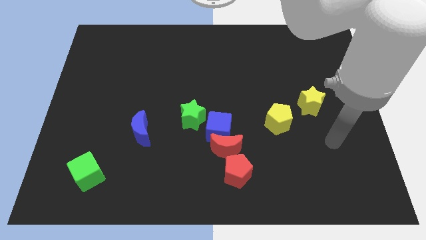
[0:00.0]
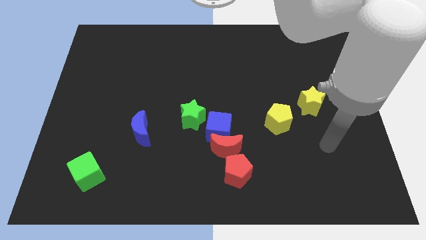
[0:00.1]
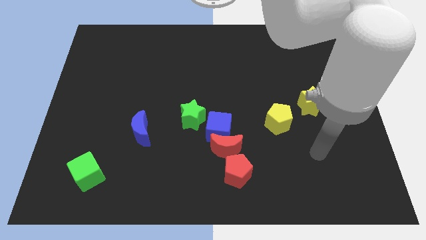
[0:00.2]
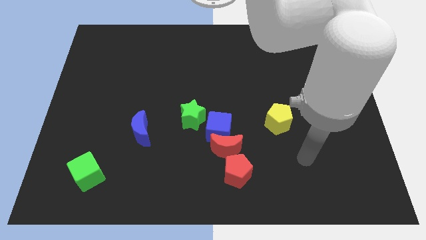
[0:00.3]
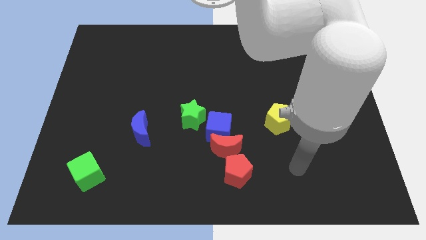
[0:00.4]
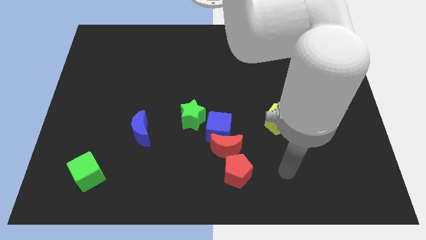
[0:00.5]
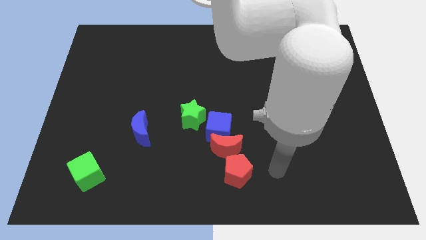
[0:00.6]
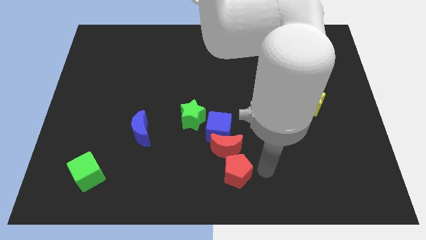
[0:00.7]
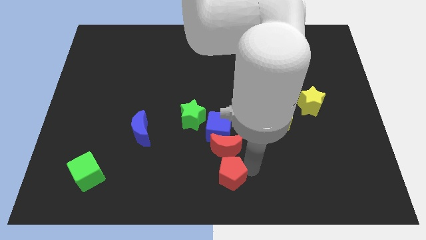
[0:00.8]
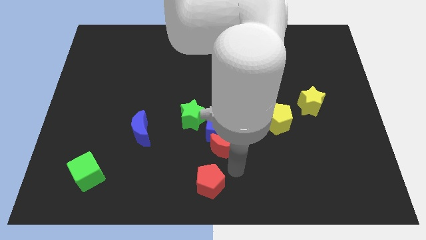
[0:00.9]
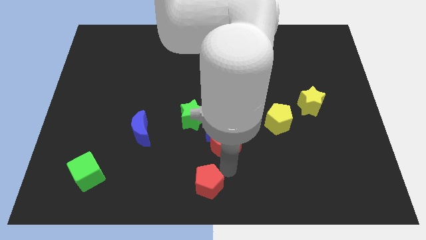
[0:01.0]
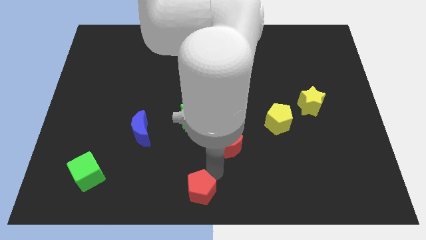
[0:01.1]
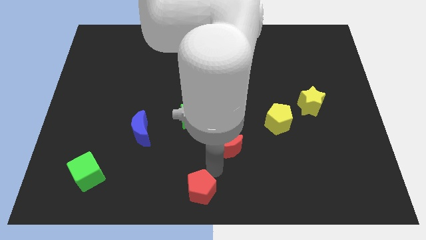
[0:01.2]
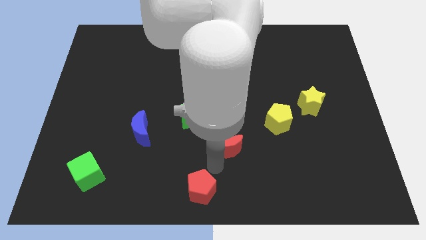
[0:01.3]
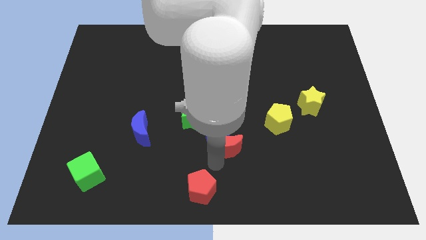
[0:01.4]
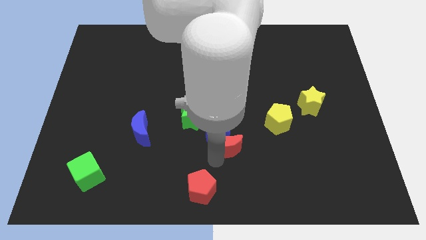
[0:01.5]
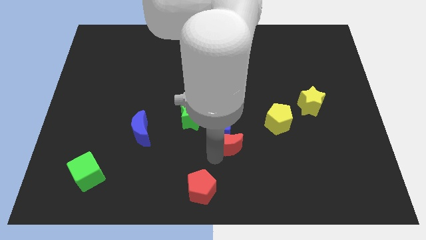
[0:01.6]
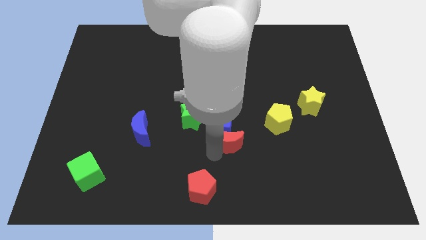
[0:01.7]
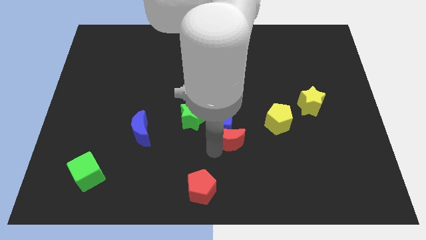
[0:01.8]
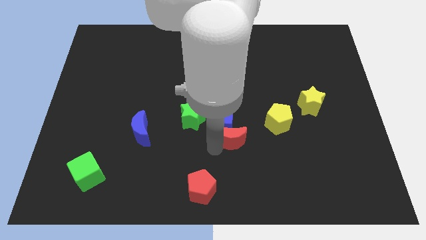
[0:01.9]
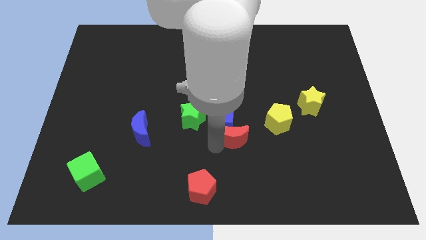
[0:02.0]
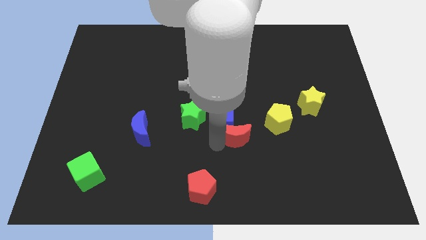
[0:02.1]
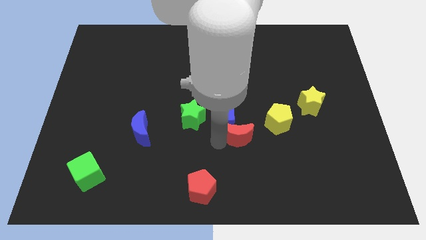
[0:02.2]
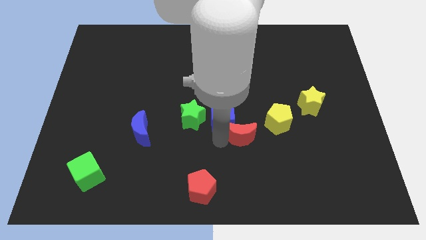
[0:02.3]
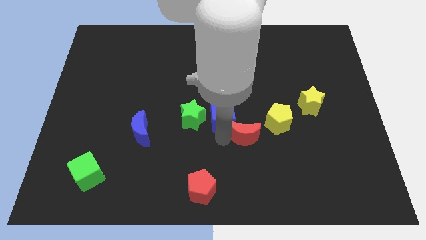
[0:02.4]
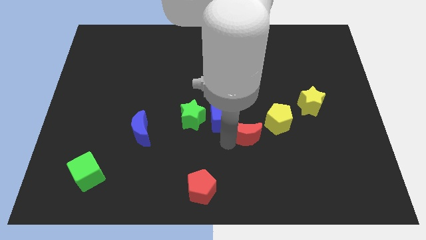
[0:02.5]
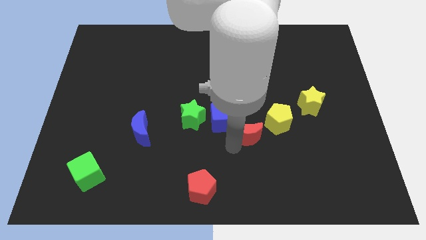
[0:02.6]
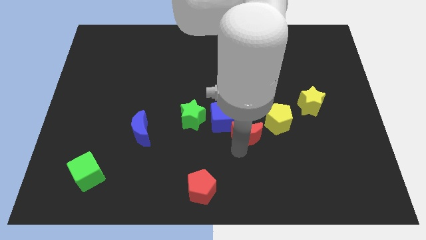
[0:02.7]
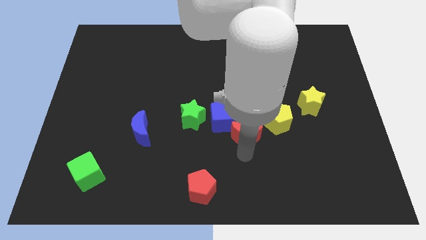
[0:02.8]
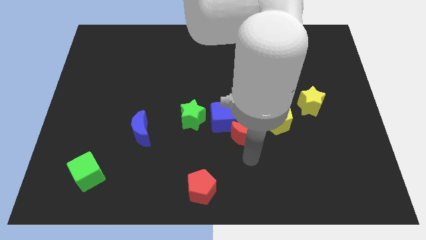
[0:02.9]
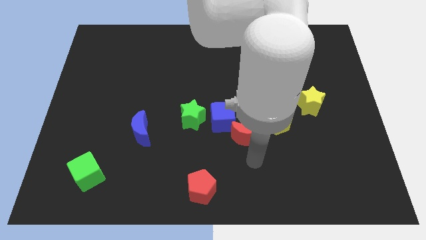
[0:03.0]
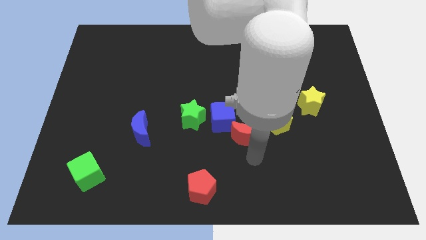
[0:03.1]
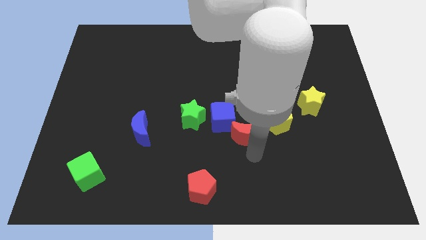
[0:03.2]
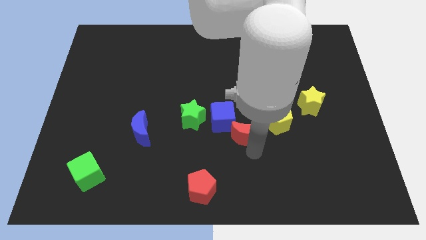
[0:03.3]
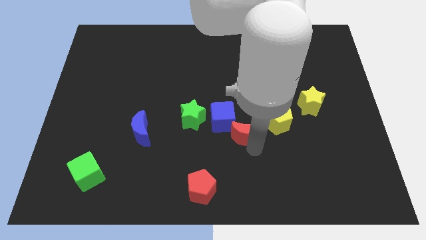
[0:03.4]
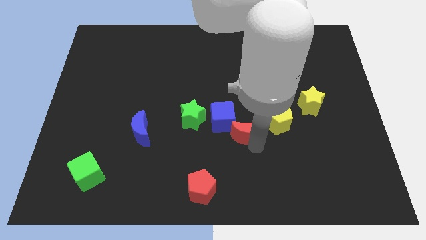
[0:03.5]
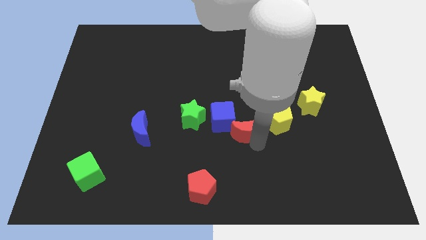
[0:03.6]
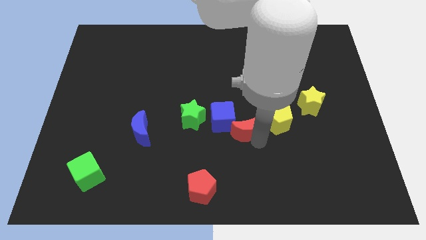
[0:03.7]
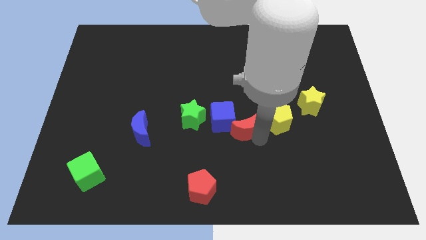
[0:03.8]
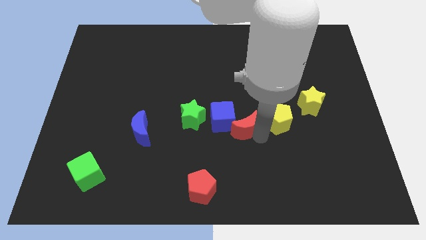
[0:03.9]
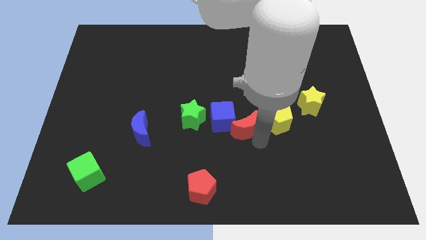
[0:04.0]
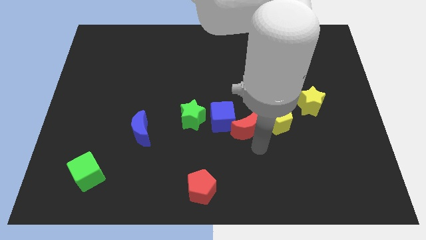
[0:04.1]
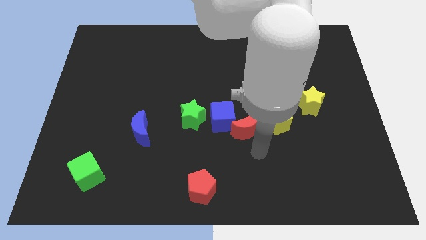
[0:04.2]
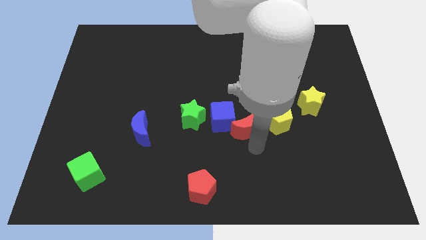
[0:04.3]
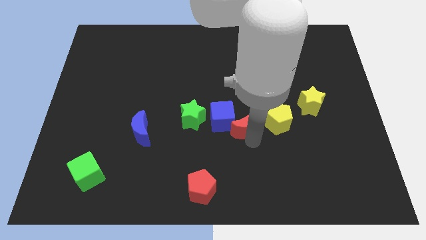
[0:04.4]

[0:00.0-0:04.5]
separate the red moon from the blue cube and red pentagon

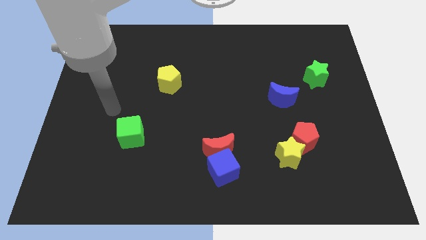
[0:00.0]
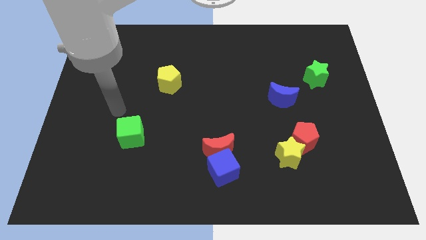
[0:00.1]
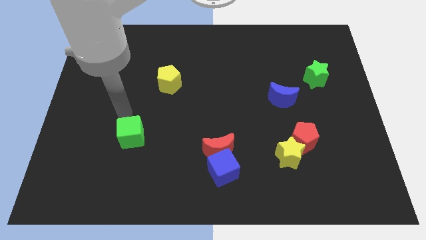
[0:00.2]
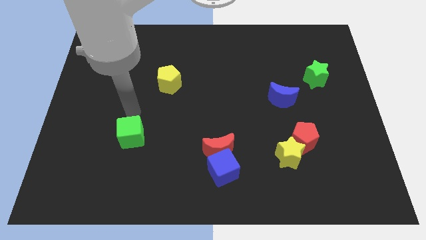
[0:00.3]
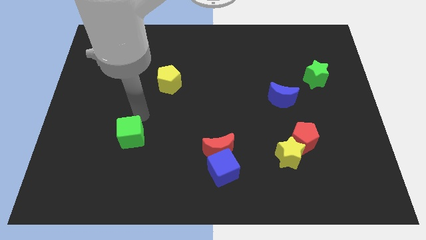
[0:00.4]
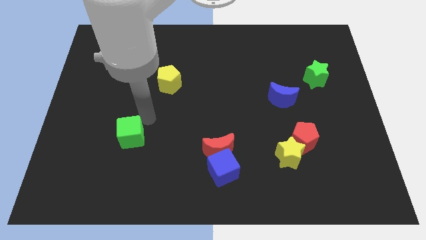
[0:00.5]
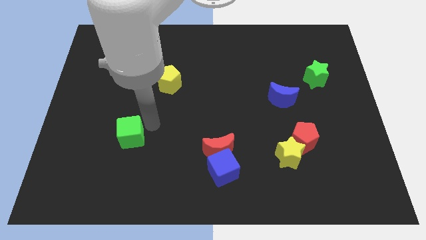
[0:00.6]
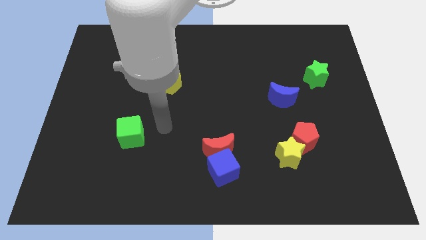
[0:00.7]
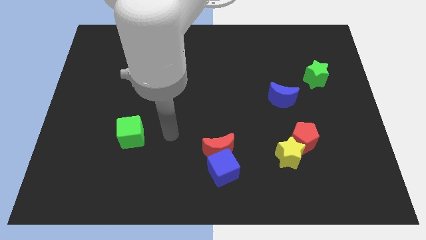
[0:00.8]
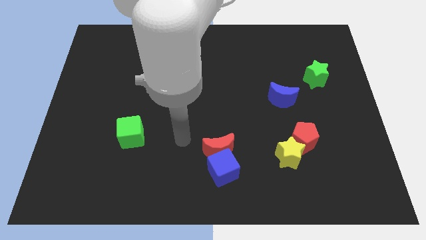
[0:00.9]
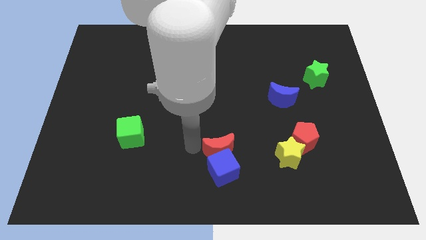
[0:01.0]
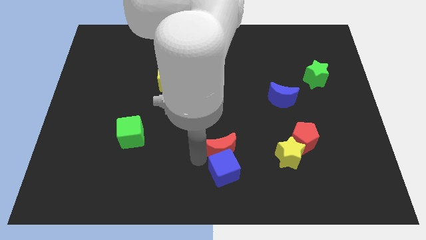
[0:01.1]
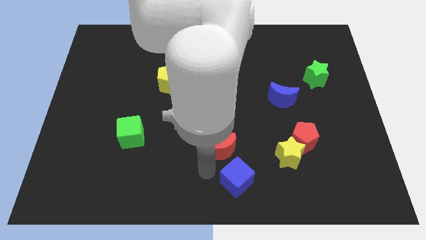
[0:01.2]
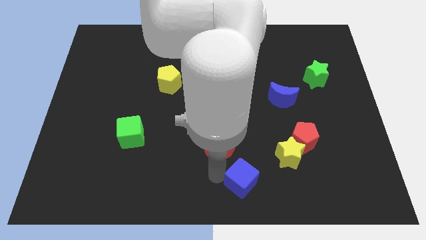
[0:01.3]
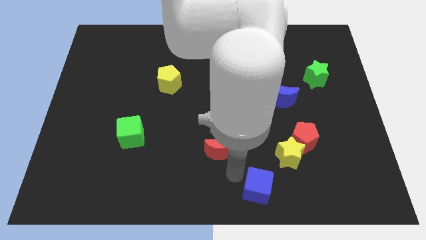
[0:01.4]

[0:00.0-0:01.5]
separate the red moon from the blue cube

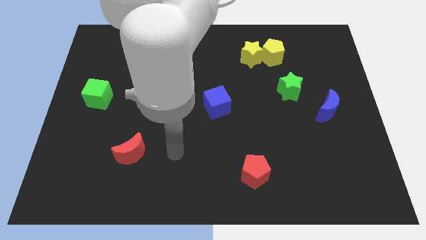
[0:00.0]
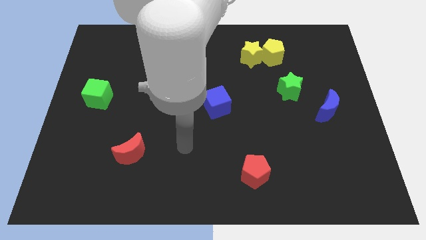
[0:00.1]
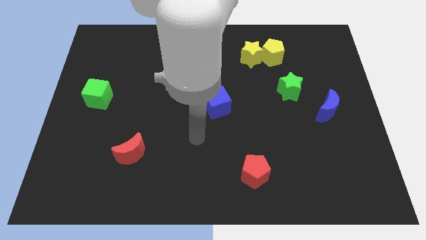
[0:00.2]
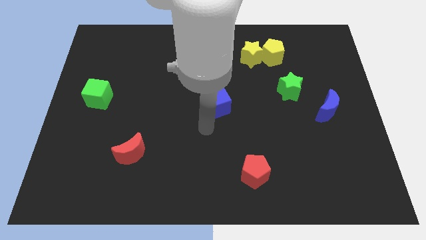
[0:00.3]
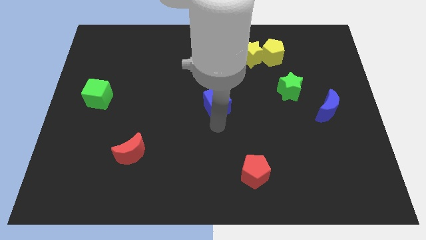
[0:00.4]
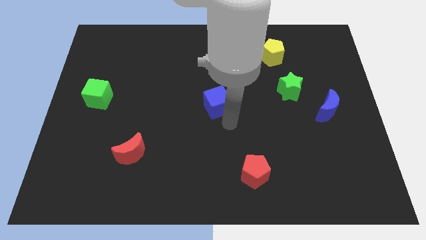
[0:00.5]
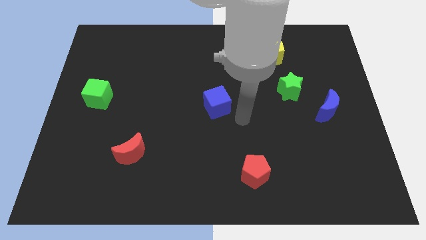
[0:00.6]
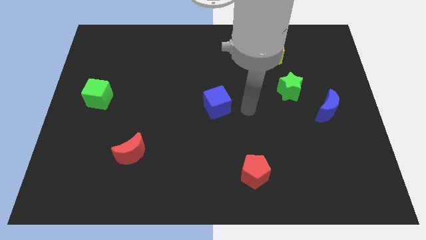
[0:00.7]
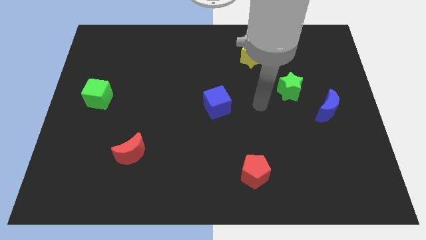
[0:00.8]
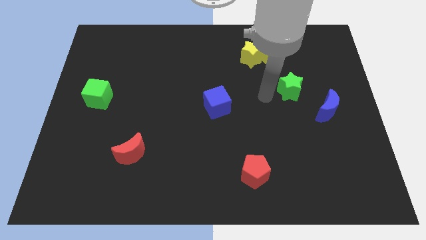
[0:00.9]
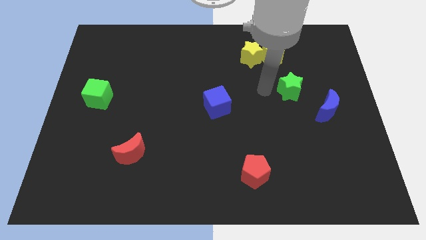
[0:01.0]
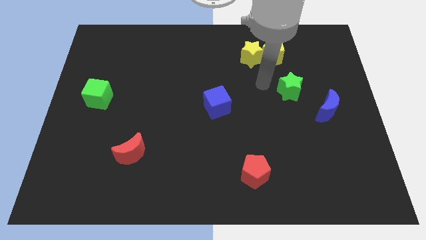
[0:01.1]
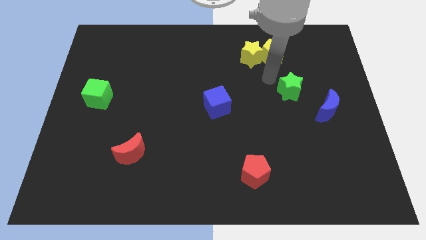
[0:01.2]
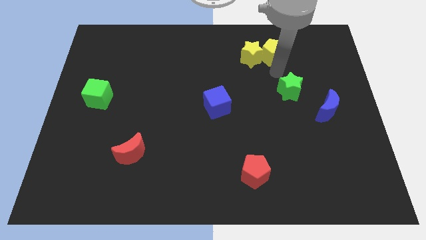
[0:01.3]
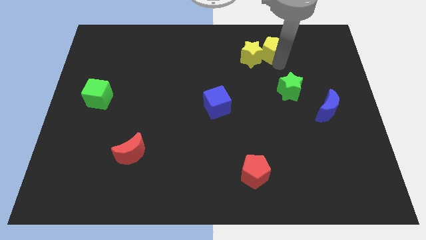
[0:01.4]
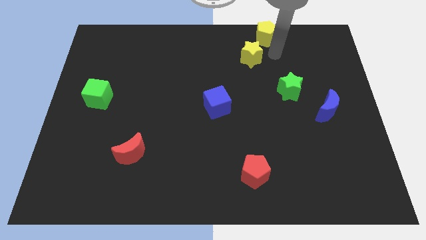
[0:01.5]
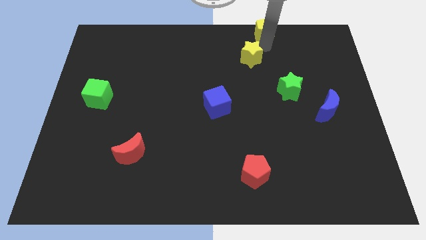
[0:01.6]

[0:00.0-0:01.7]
move the yellow star away from the yellow pentagon

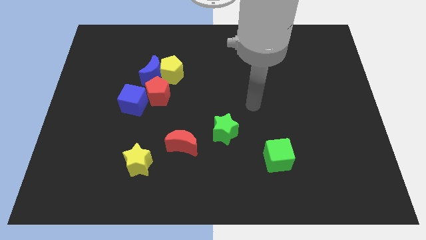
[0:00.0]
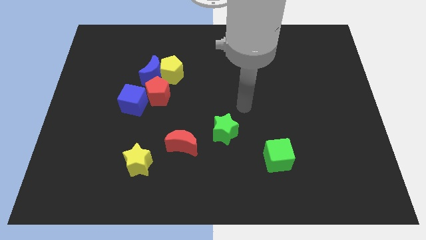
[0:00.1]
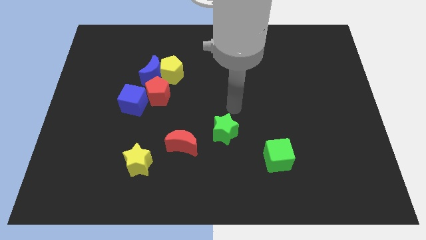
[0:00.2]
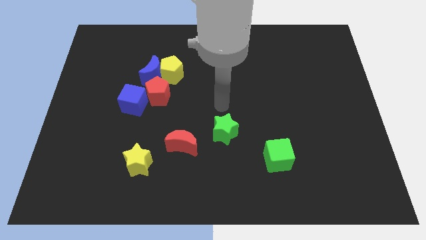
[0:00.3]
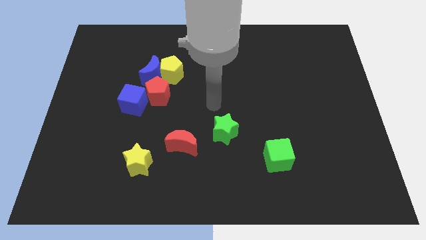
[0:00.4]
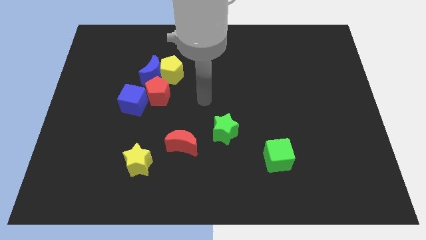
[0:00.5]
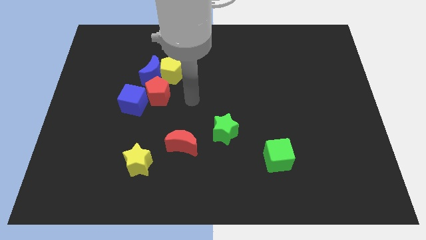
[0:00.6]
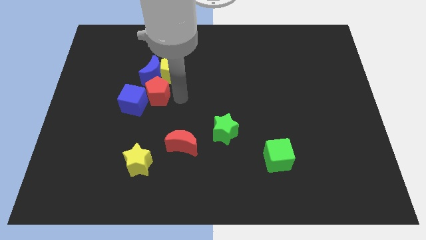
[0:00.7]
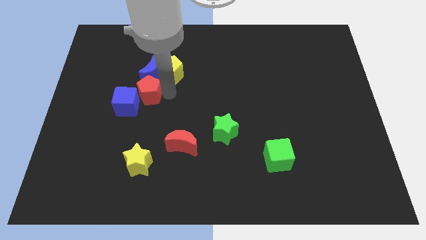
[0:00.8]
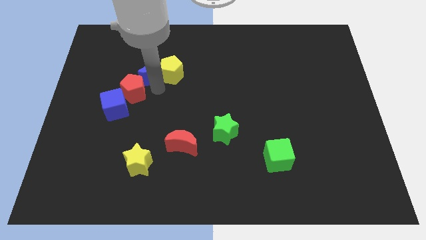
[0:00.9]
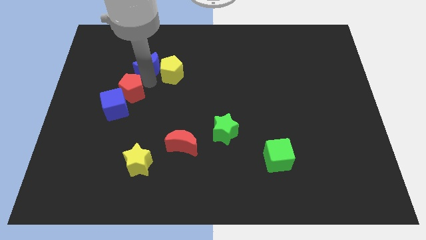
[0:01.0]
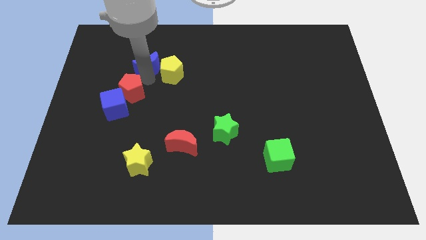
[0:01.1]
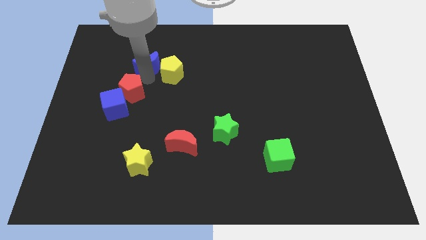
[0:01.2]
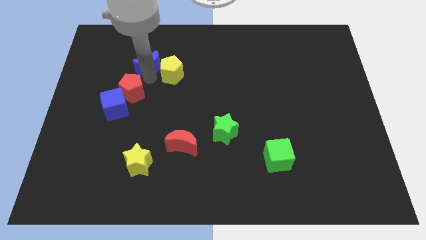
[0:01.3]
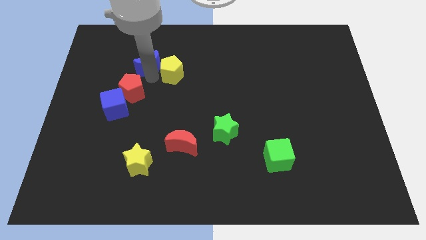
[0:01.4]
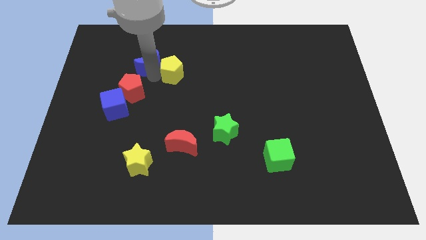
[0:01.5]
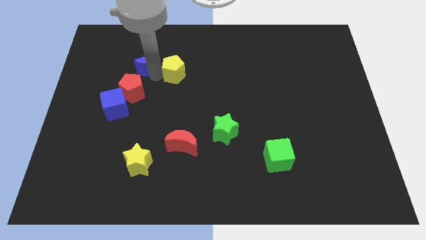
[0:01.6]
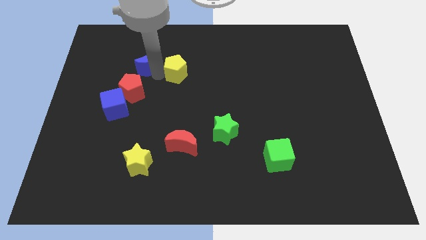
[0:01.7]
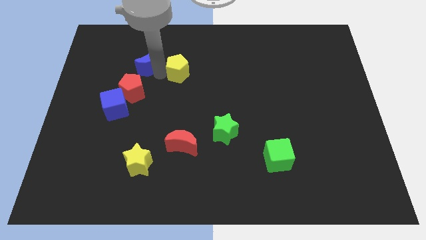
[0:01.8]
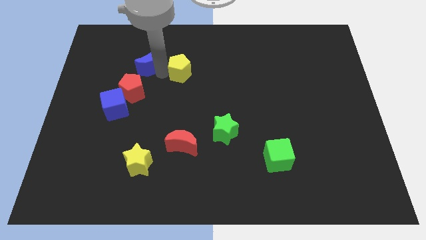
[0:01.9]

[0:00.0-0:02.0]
pull the yellow pentagon apart from the blue moon and red pentagon
